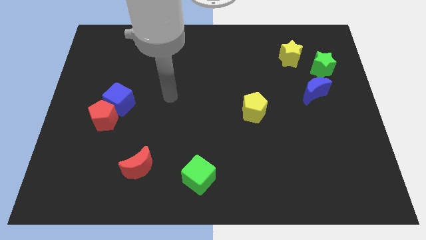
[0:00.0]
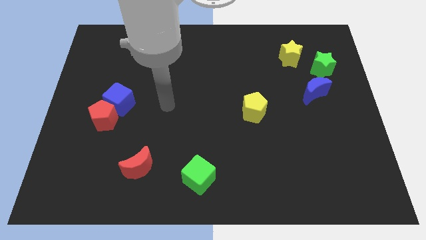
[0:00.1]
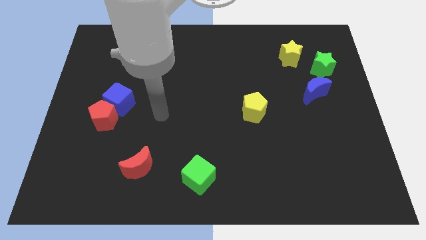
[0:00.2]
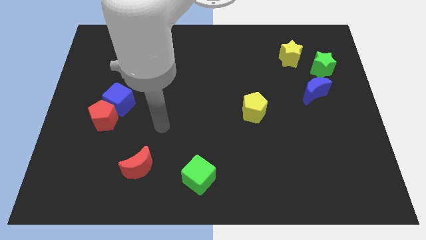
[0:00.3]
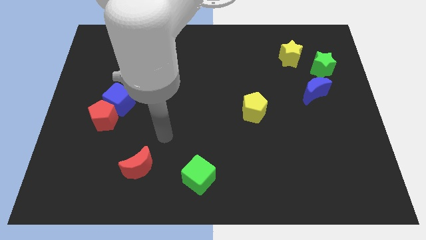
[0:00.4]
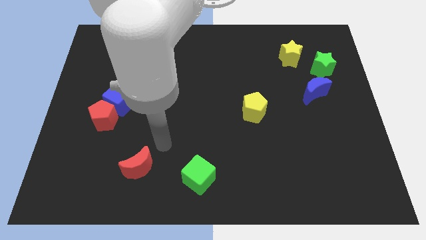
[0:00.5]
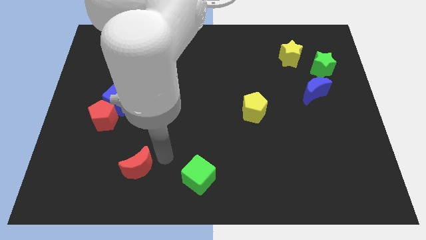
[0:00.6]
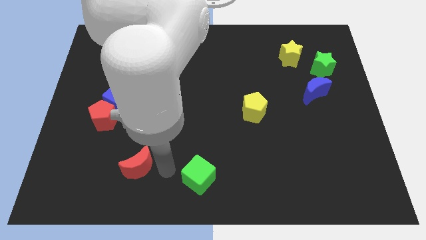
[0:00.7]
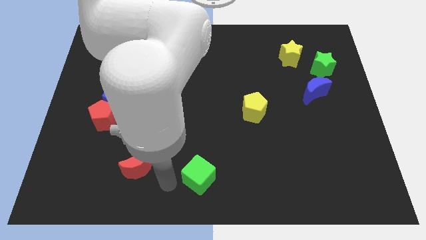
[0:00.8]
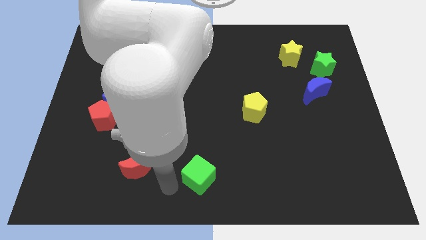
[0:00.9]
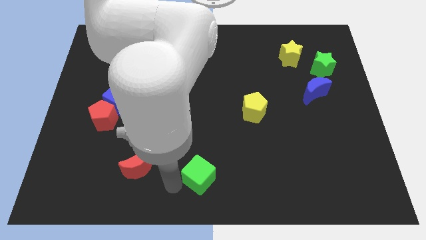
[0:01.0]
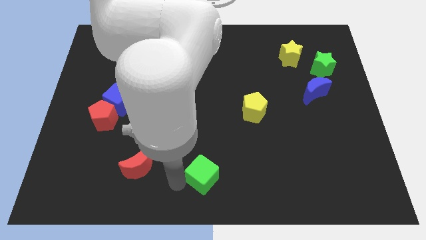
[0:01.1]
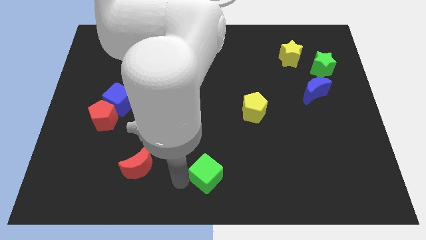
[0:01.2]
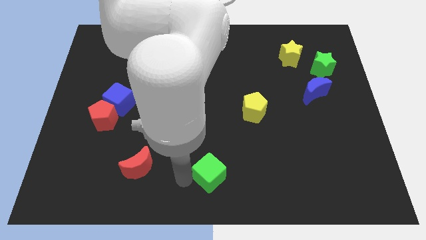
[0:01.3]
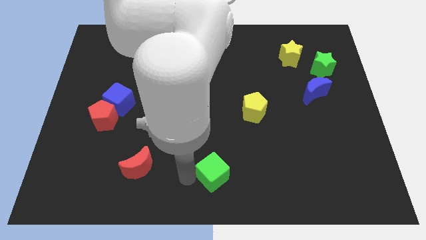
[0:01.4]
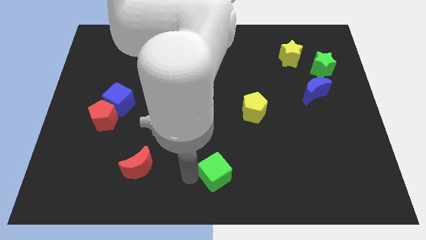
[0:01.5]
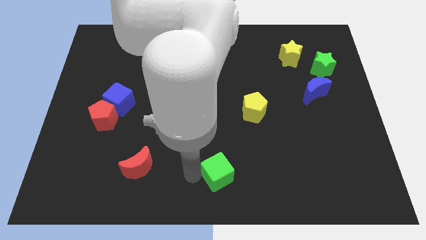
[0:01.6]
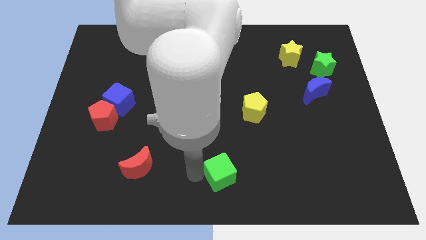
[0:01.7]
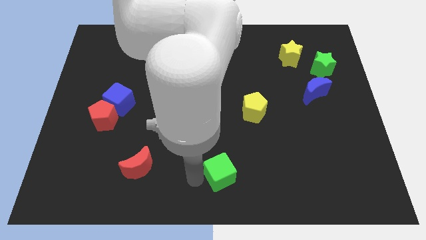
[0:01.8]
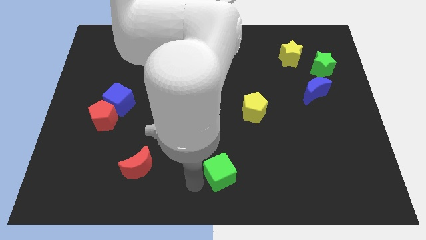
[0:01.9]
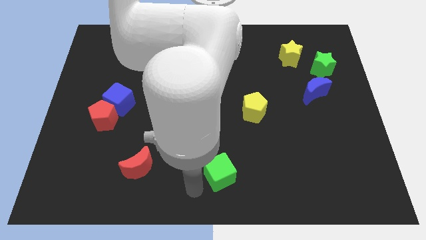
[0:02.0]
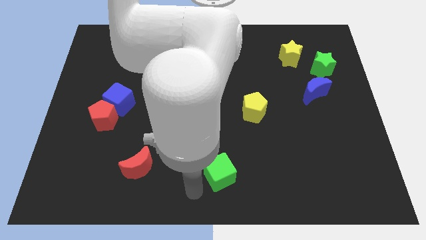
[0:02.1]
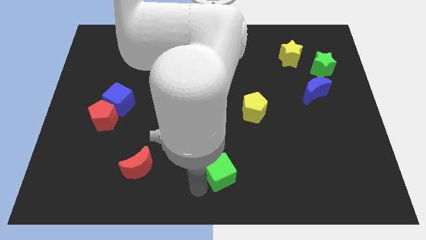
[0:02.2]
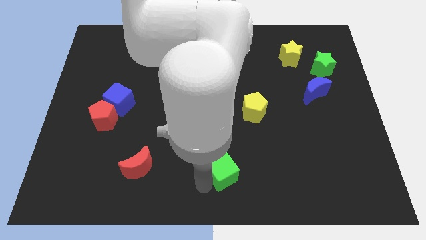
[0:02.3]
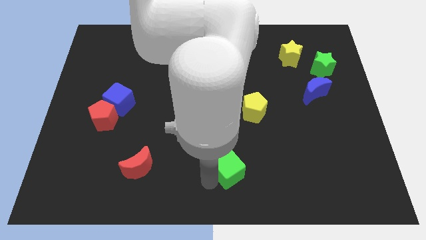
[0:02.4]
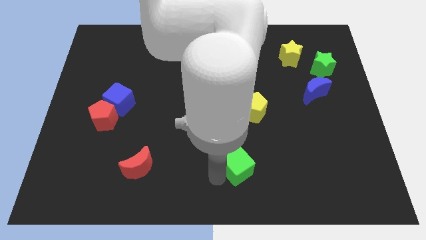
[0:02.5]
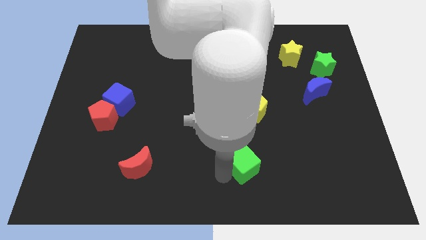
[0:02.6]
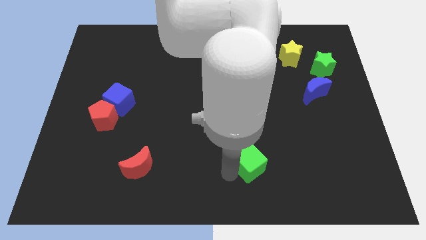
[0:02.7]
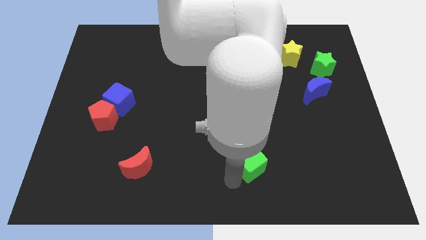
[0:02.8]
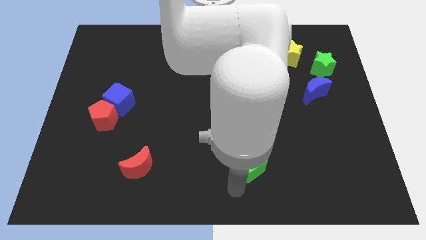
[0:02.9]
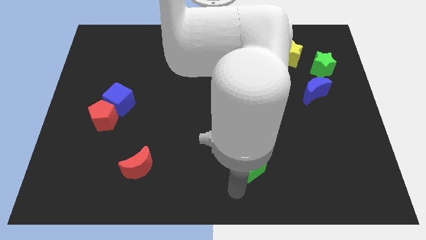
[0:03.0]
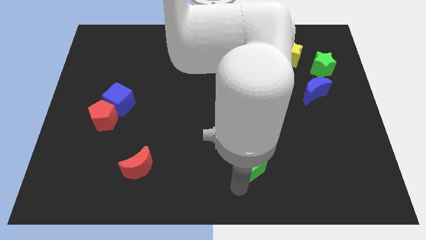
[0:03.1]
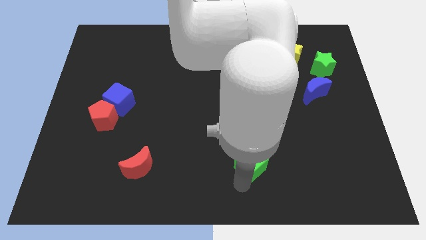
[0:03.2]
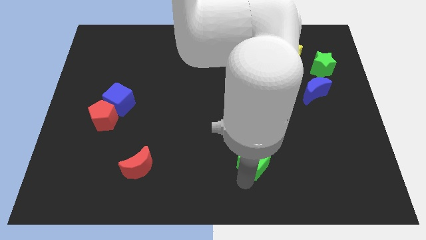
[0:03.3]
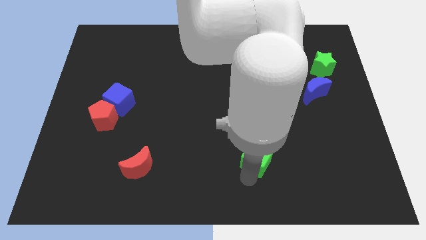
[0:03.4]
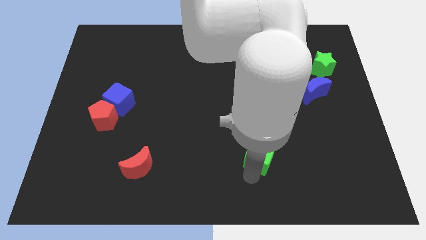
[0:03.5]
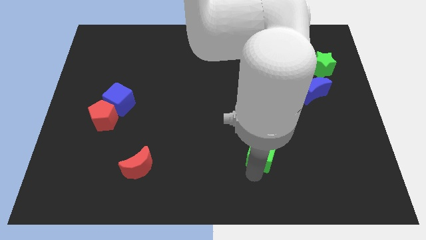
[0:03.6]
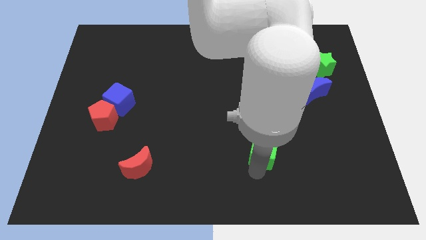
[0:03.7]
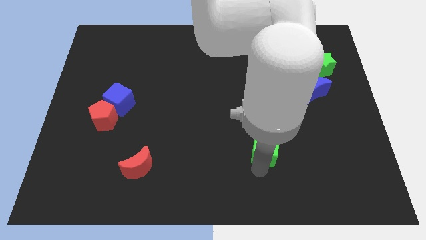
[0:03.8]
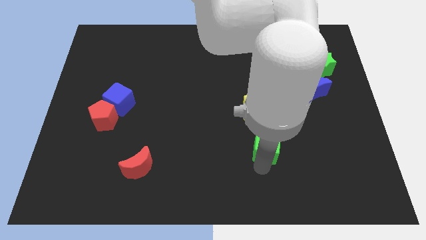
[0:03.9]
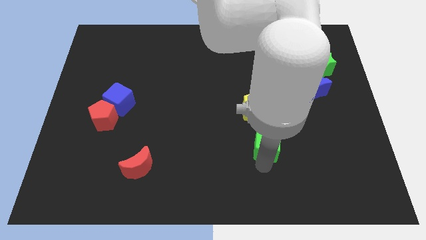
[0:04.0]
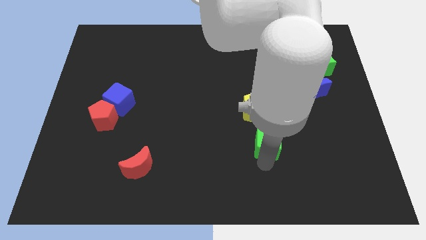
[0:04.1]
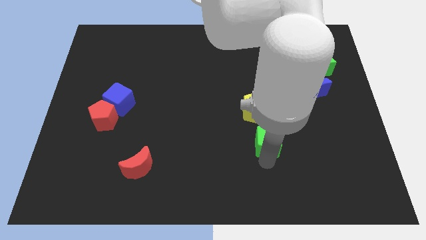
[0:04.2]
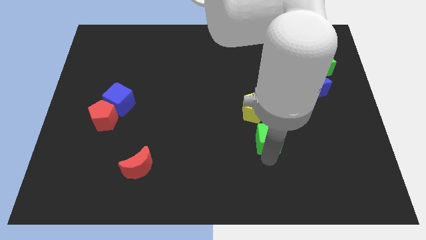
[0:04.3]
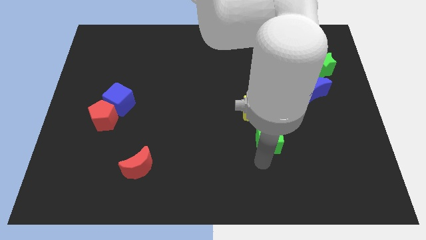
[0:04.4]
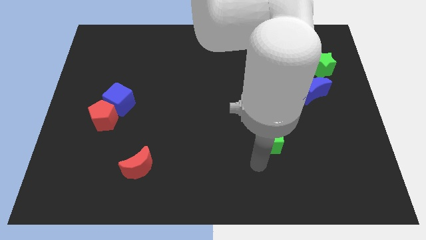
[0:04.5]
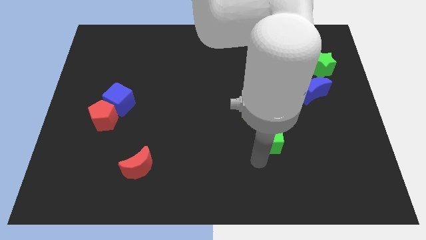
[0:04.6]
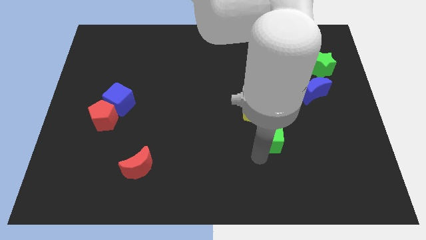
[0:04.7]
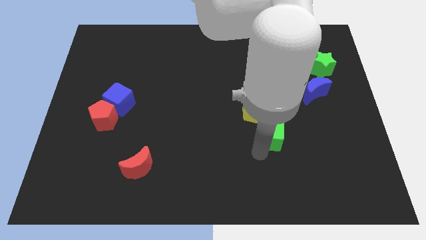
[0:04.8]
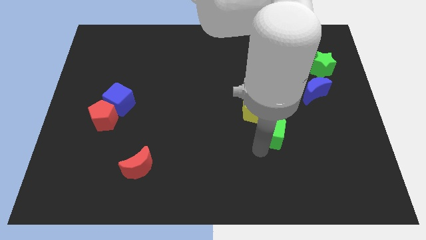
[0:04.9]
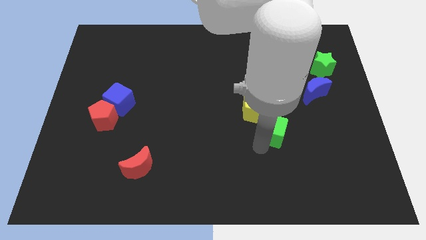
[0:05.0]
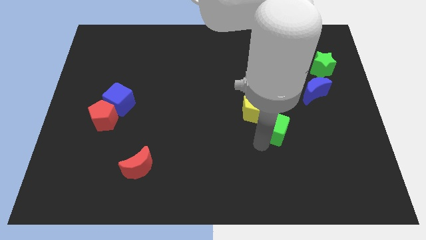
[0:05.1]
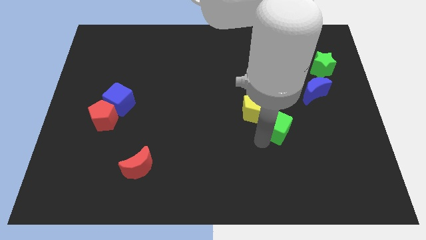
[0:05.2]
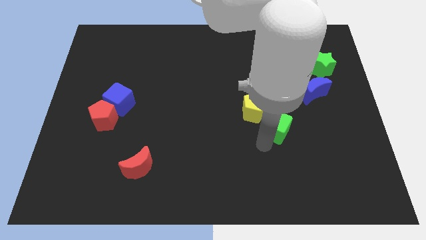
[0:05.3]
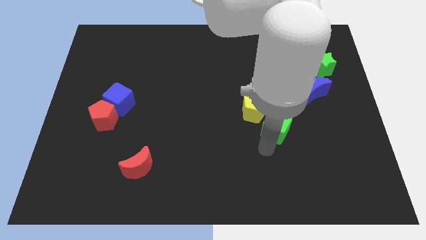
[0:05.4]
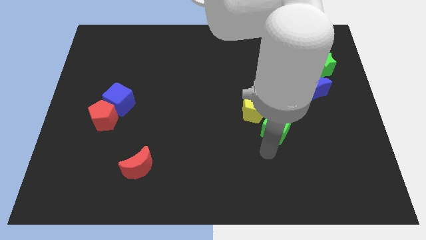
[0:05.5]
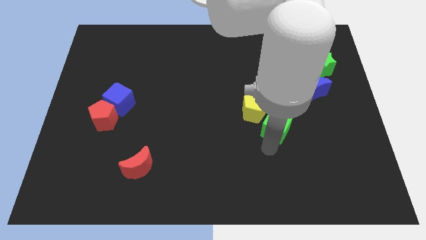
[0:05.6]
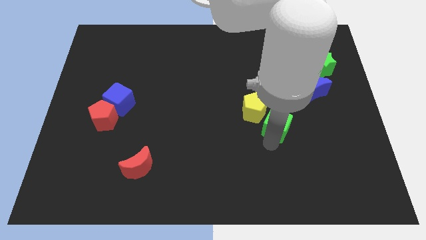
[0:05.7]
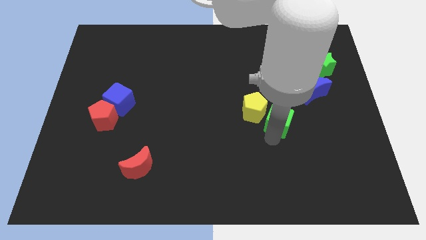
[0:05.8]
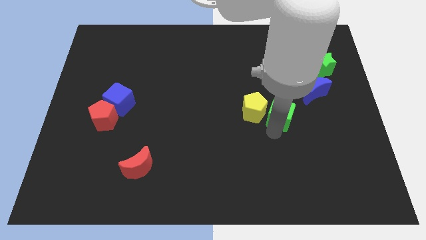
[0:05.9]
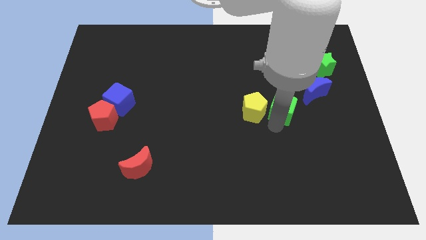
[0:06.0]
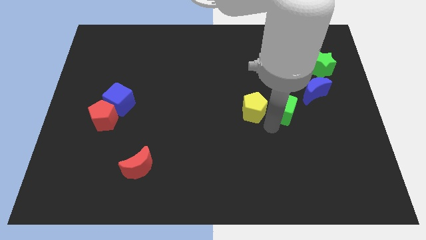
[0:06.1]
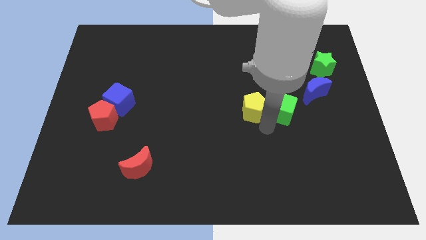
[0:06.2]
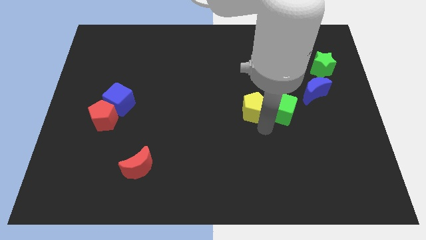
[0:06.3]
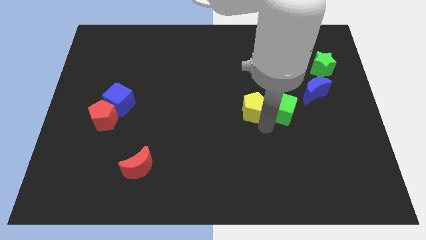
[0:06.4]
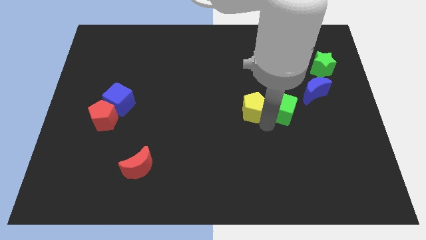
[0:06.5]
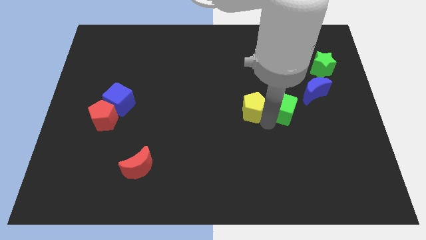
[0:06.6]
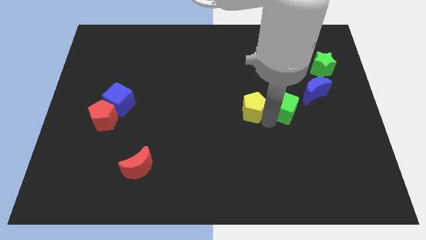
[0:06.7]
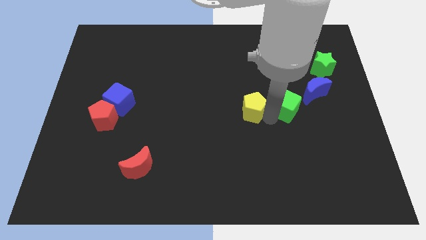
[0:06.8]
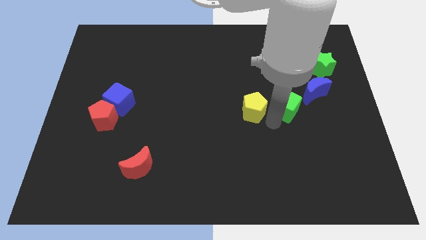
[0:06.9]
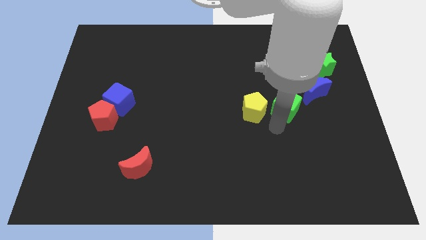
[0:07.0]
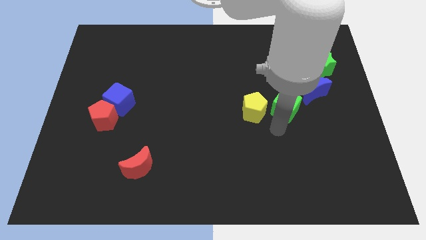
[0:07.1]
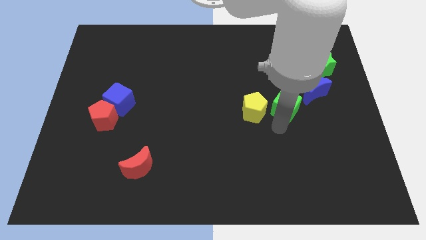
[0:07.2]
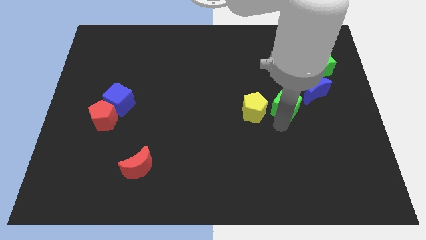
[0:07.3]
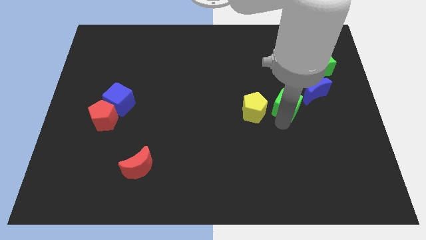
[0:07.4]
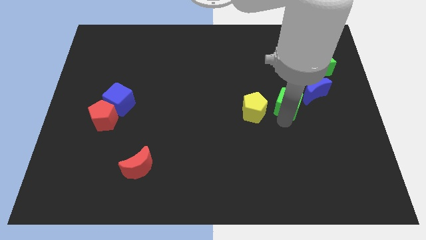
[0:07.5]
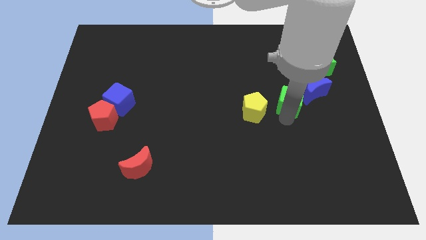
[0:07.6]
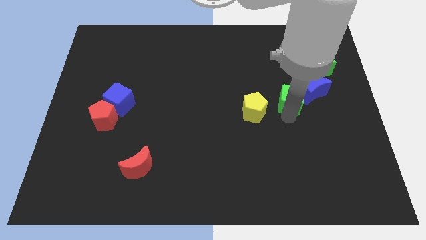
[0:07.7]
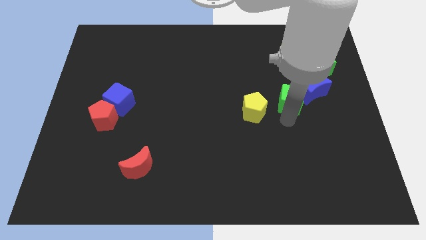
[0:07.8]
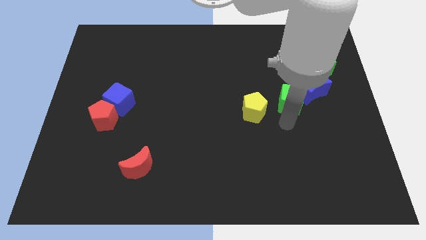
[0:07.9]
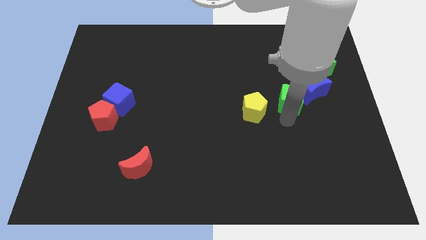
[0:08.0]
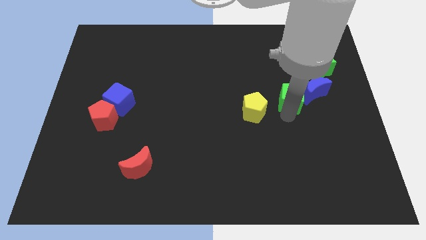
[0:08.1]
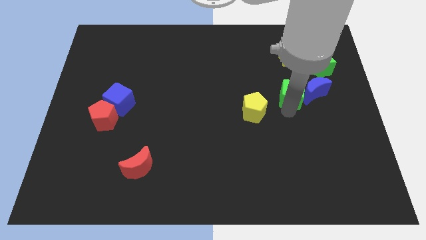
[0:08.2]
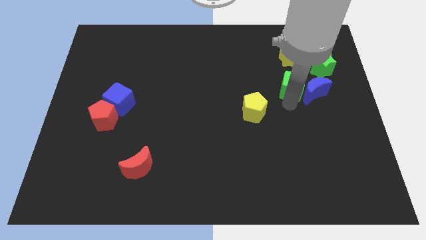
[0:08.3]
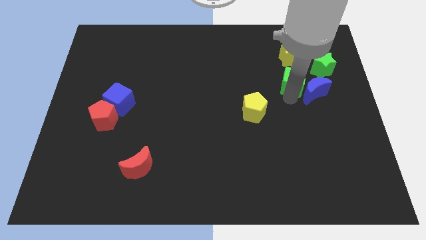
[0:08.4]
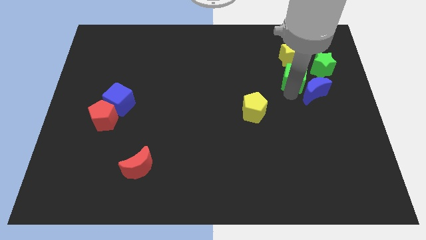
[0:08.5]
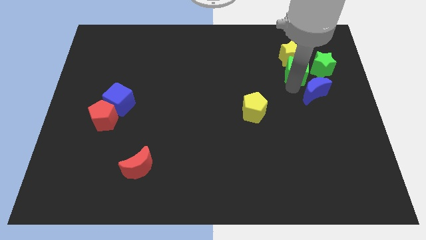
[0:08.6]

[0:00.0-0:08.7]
push the green cube towards the yellow star
